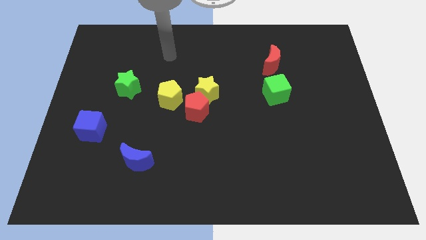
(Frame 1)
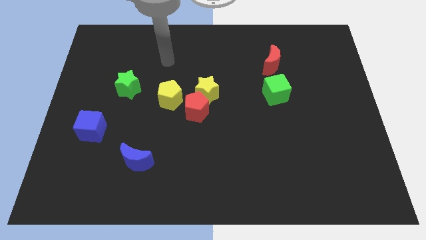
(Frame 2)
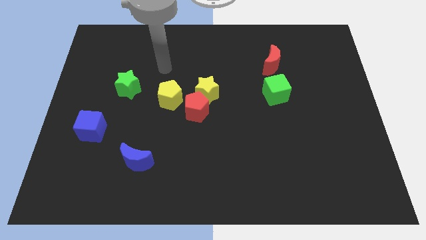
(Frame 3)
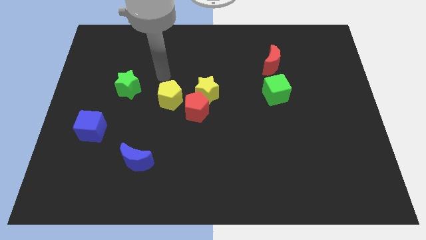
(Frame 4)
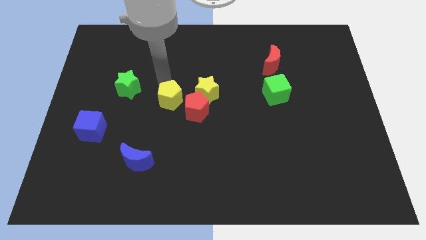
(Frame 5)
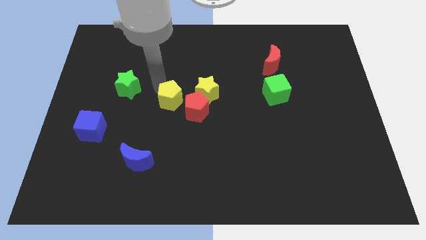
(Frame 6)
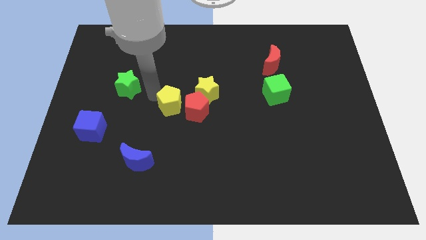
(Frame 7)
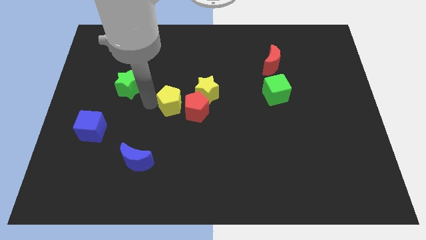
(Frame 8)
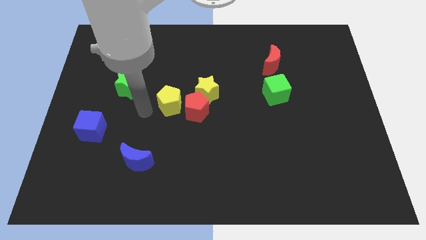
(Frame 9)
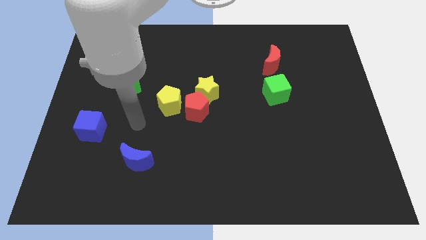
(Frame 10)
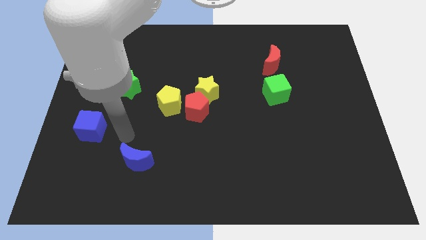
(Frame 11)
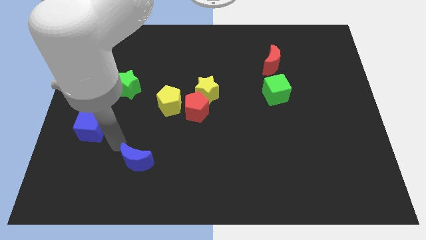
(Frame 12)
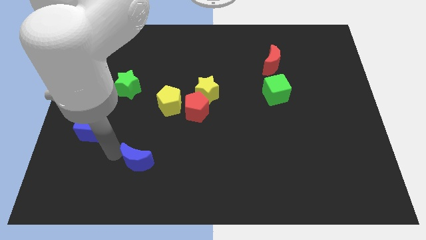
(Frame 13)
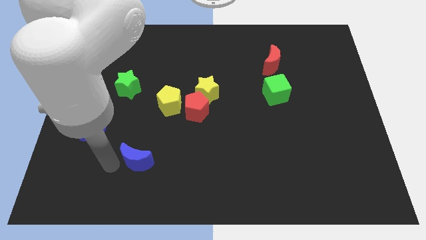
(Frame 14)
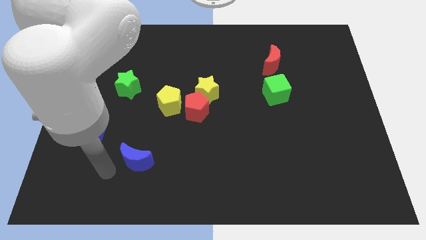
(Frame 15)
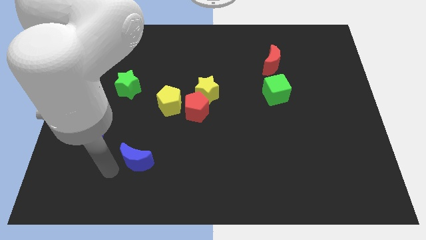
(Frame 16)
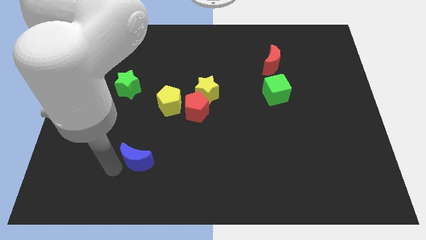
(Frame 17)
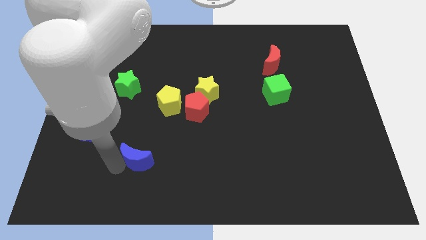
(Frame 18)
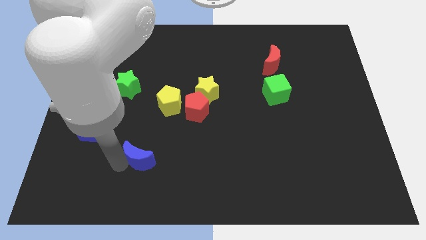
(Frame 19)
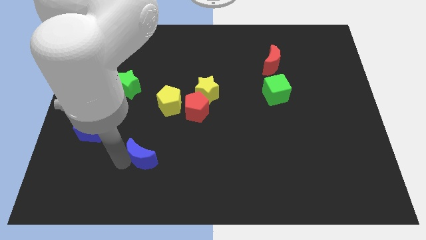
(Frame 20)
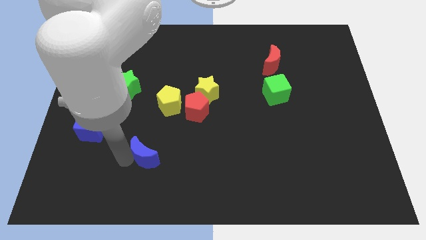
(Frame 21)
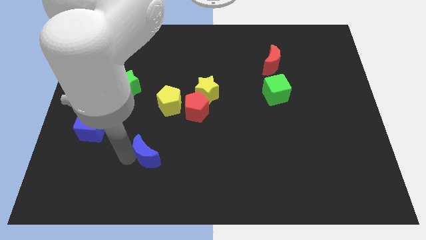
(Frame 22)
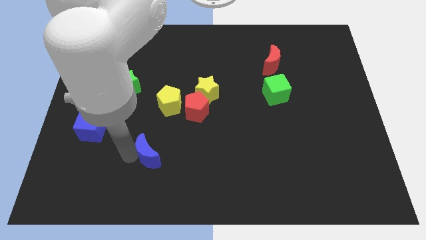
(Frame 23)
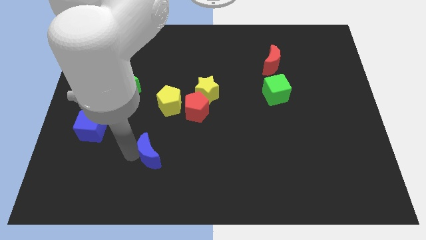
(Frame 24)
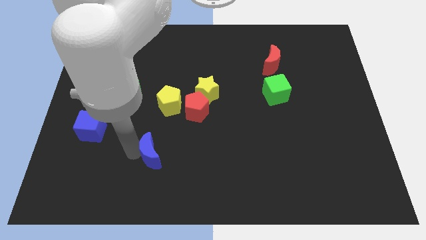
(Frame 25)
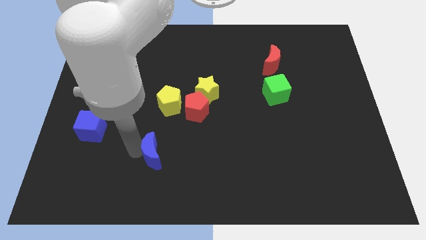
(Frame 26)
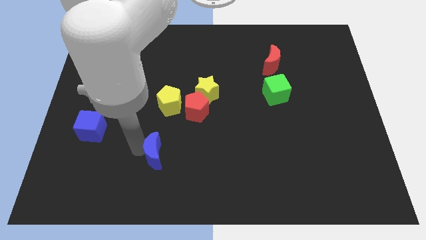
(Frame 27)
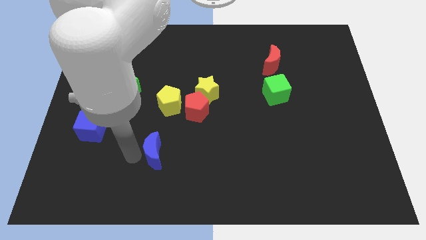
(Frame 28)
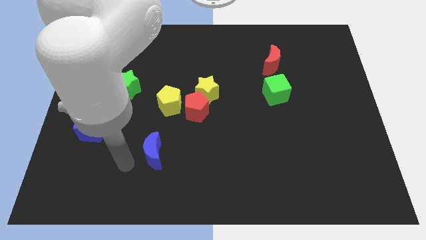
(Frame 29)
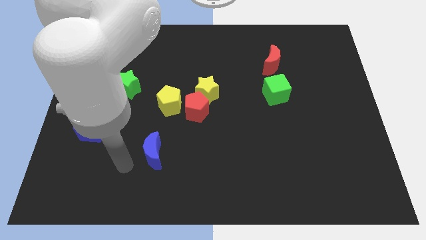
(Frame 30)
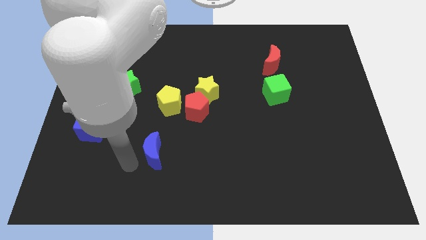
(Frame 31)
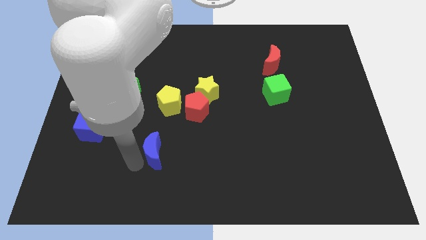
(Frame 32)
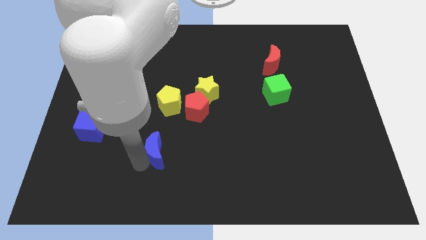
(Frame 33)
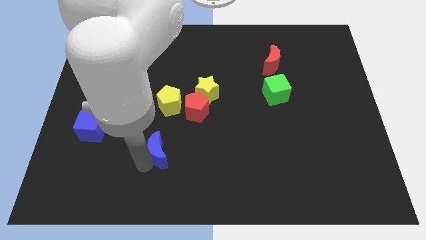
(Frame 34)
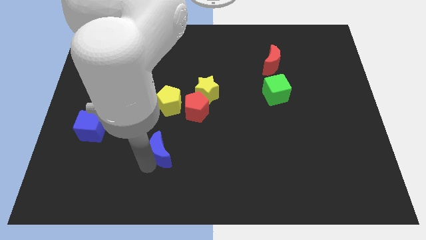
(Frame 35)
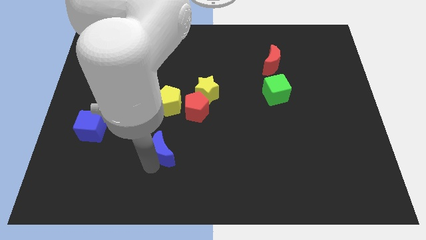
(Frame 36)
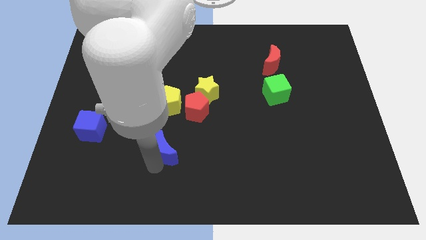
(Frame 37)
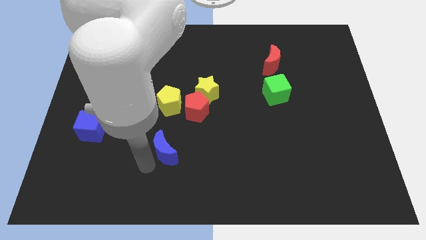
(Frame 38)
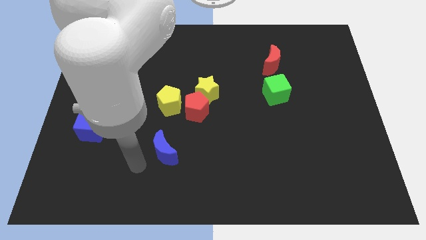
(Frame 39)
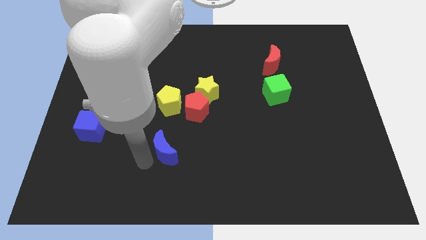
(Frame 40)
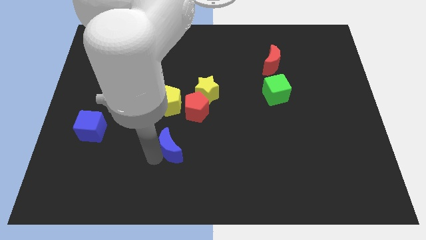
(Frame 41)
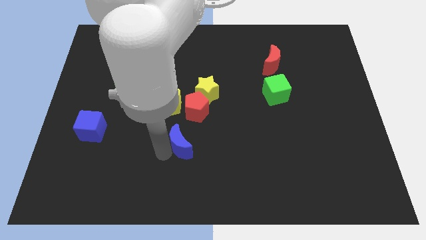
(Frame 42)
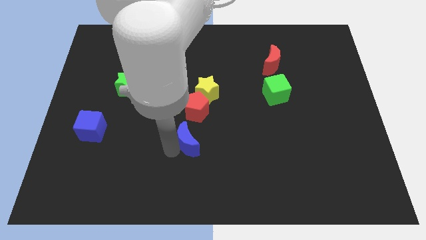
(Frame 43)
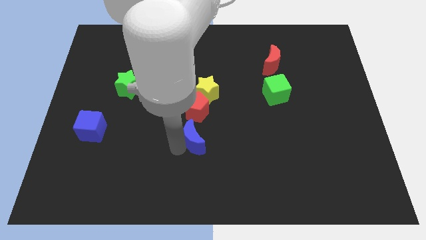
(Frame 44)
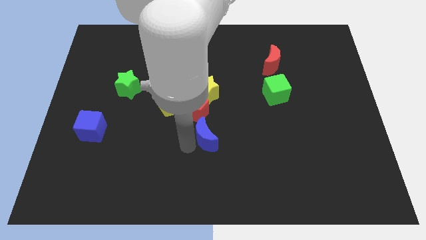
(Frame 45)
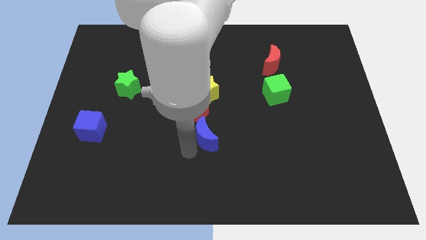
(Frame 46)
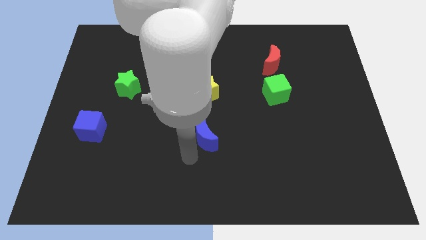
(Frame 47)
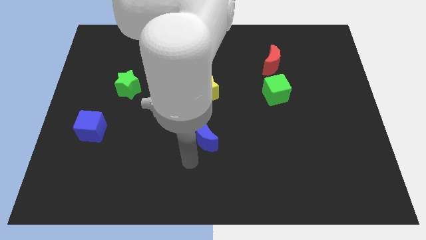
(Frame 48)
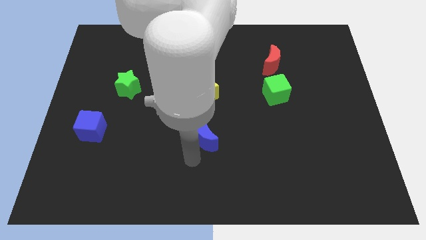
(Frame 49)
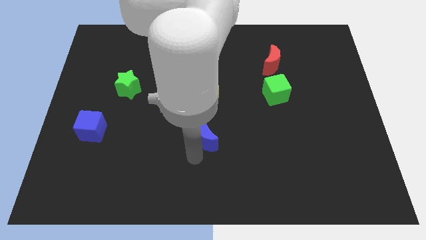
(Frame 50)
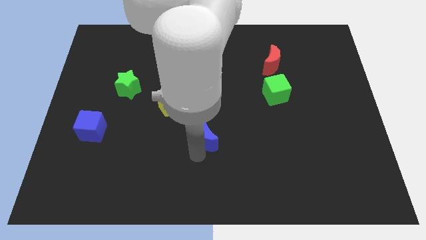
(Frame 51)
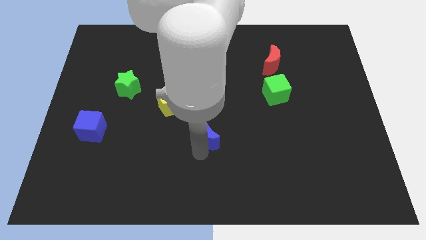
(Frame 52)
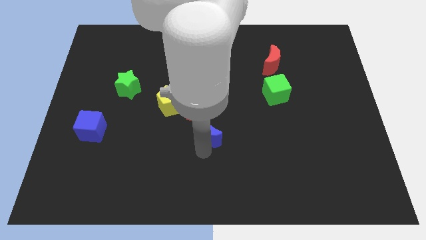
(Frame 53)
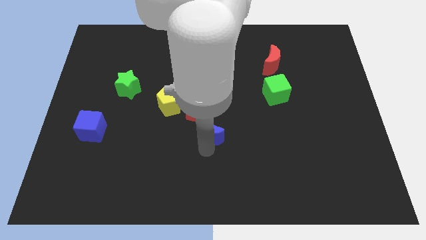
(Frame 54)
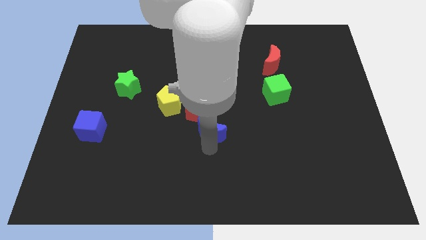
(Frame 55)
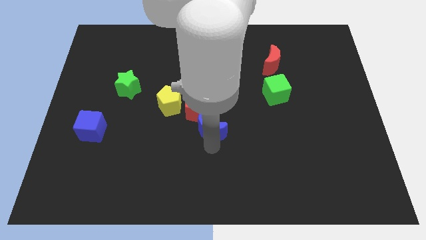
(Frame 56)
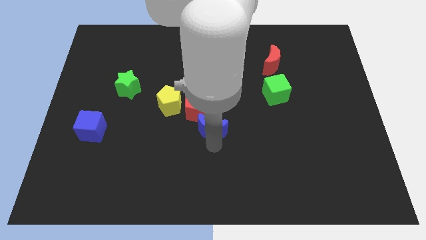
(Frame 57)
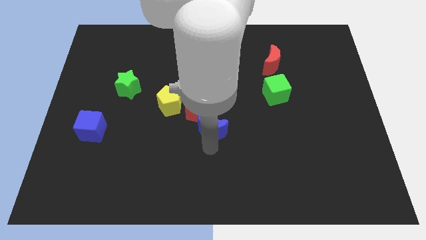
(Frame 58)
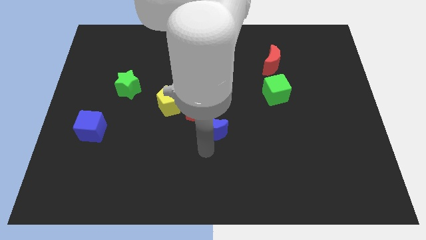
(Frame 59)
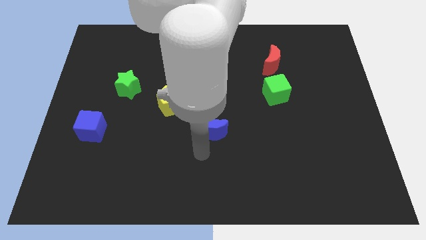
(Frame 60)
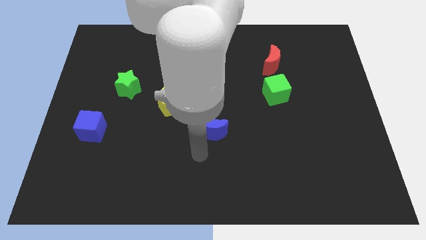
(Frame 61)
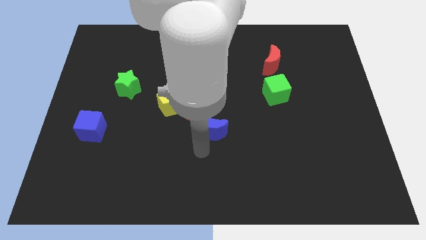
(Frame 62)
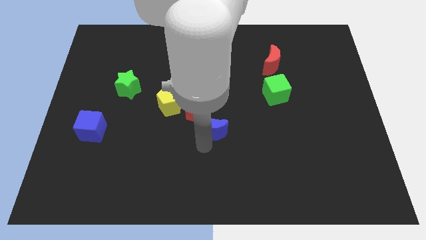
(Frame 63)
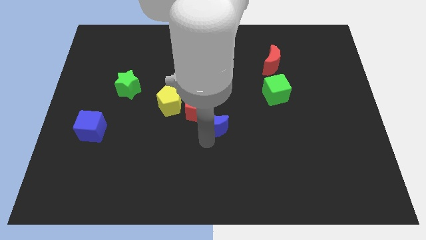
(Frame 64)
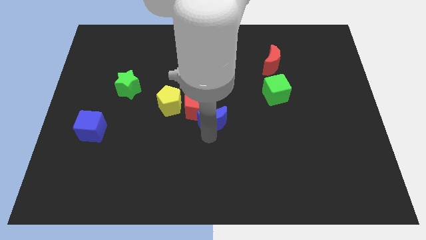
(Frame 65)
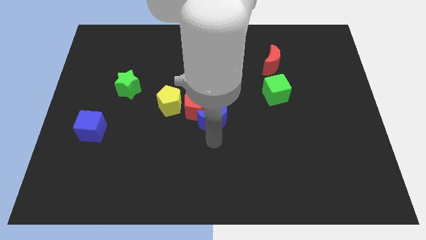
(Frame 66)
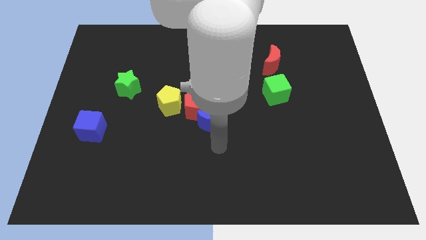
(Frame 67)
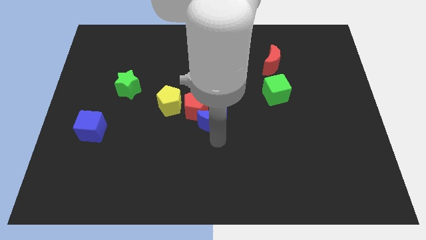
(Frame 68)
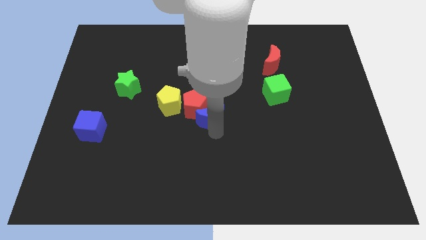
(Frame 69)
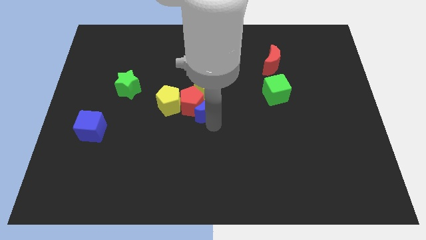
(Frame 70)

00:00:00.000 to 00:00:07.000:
push the blue moon next to the yellow star

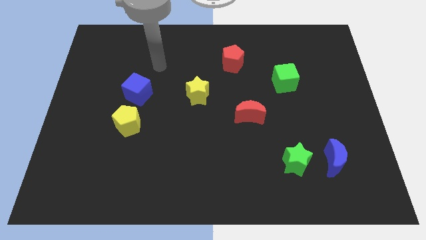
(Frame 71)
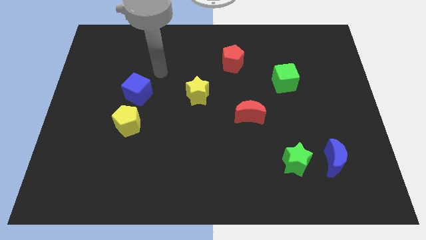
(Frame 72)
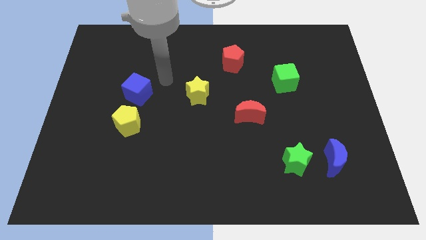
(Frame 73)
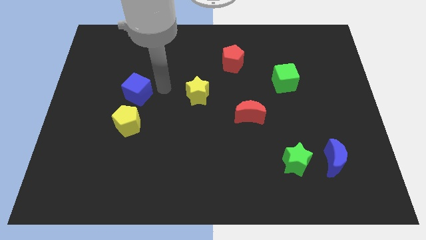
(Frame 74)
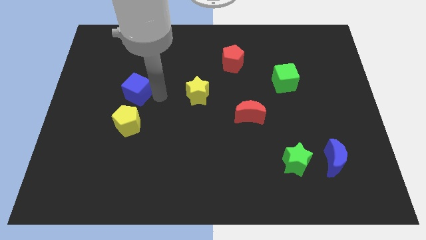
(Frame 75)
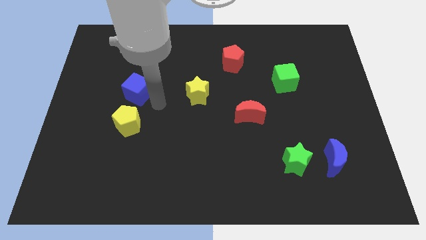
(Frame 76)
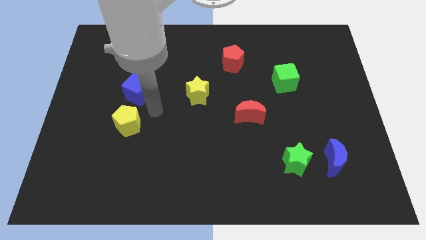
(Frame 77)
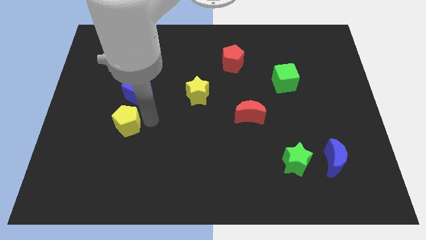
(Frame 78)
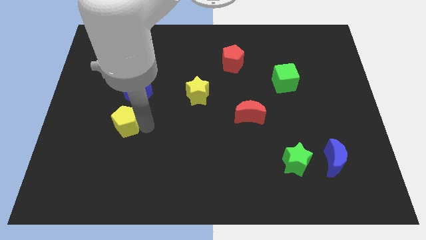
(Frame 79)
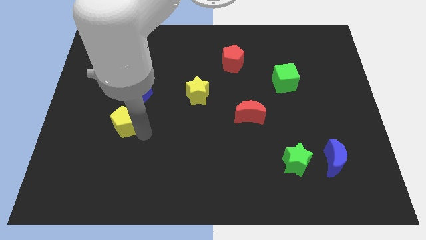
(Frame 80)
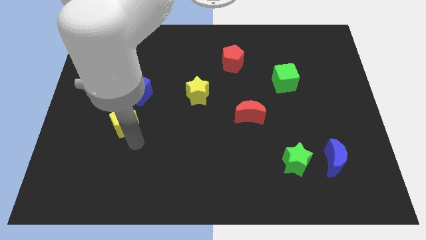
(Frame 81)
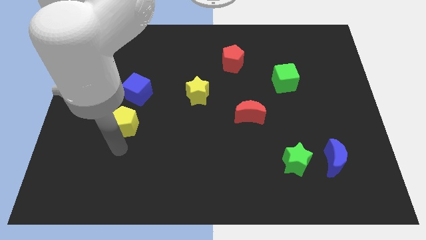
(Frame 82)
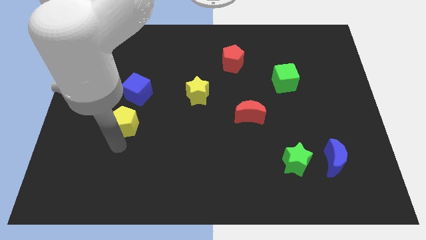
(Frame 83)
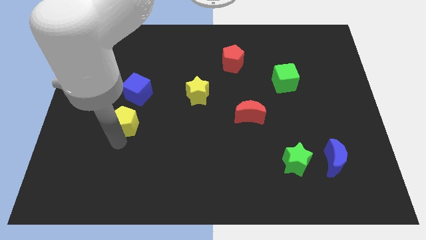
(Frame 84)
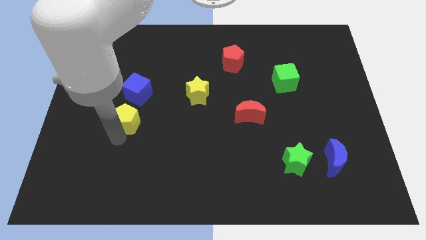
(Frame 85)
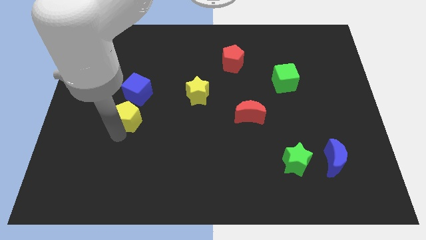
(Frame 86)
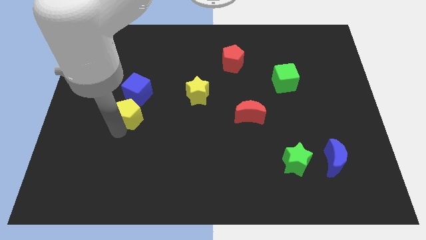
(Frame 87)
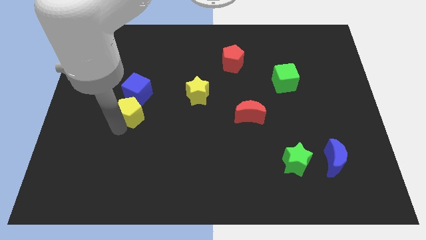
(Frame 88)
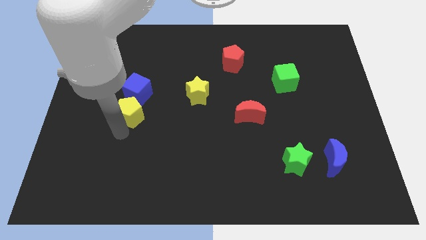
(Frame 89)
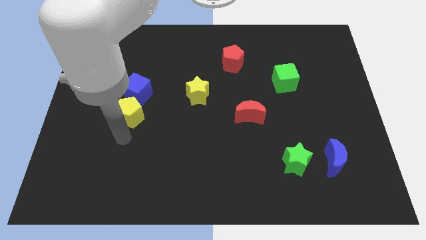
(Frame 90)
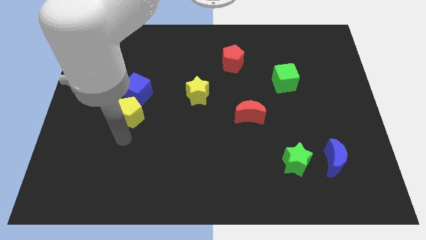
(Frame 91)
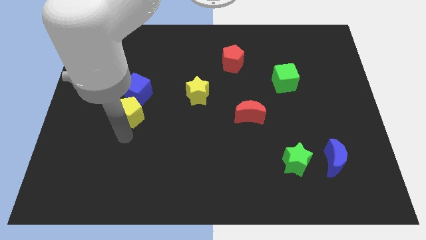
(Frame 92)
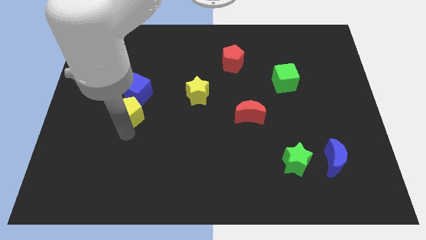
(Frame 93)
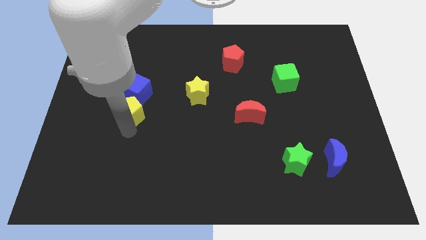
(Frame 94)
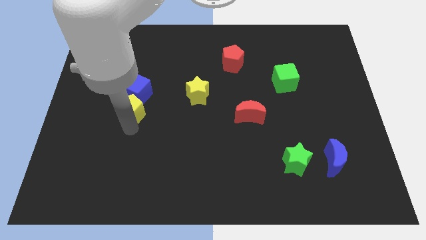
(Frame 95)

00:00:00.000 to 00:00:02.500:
push the yellow pentagon close to the blue cube
